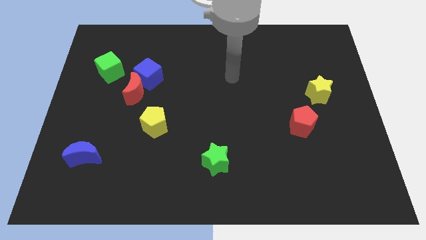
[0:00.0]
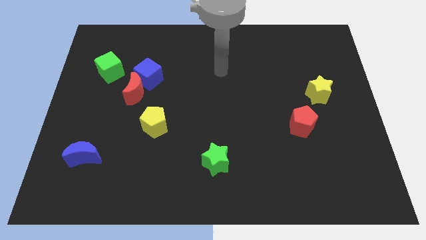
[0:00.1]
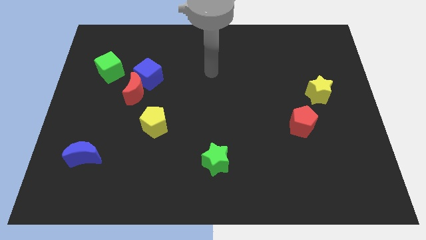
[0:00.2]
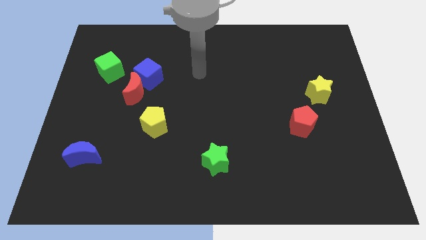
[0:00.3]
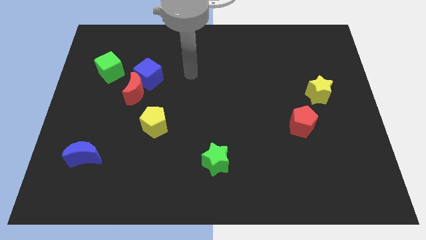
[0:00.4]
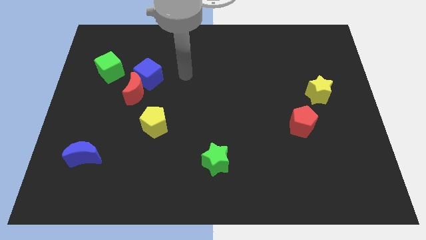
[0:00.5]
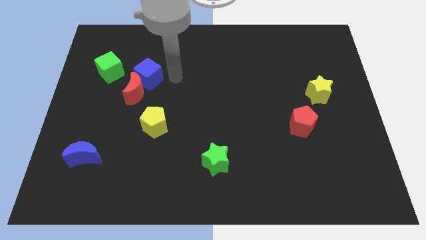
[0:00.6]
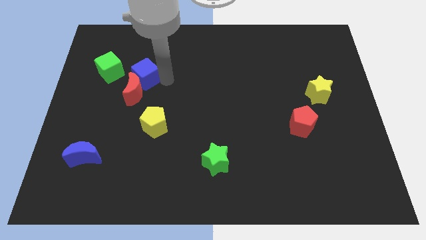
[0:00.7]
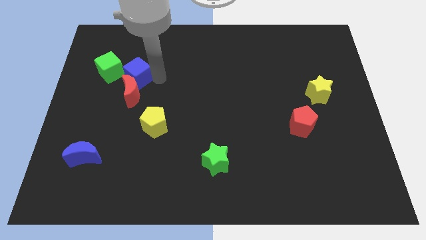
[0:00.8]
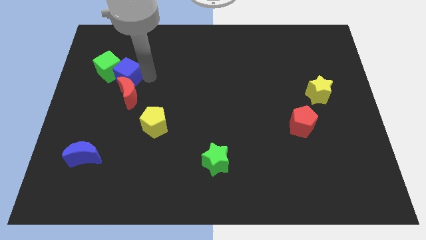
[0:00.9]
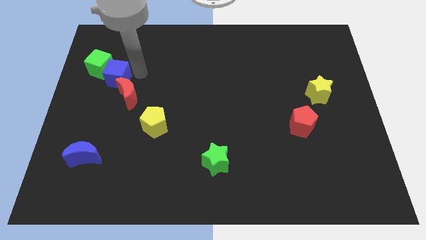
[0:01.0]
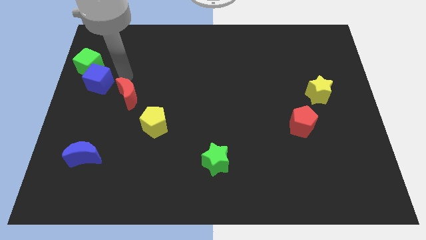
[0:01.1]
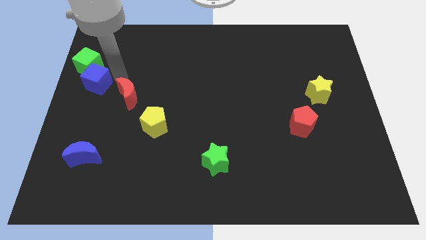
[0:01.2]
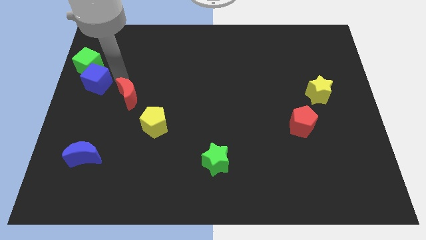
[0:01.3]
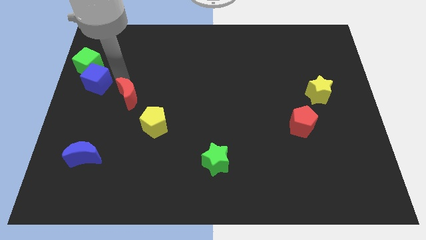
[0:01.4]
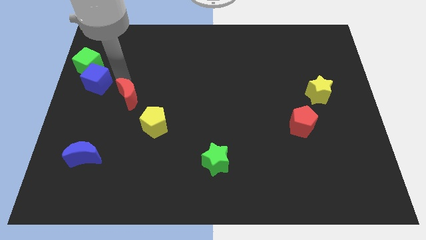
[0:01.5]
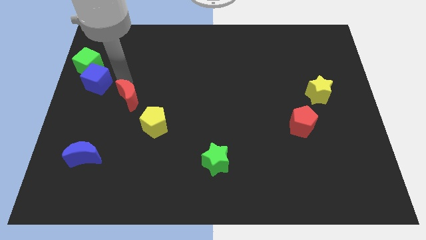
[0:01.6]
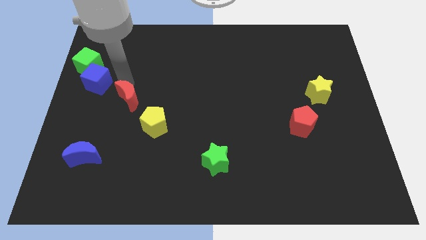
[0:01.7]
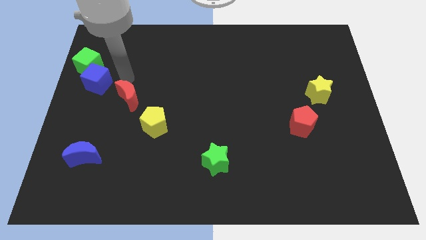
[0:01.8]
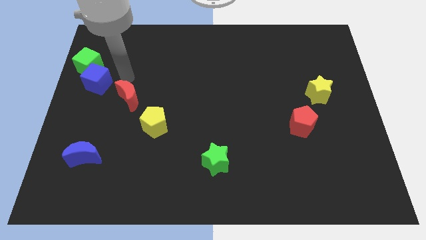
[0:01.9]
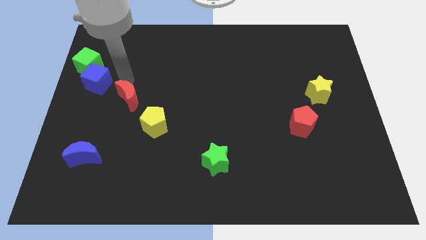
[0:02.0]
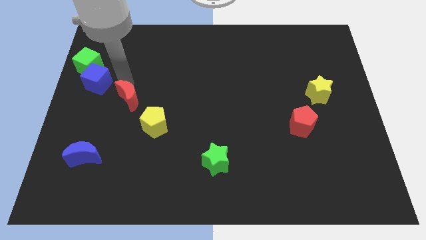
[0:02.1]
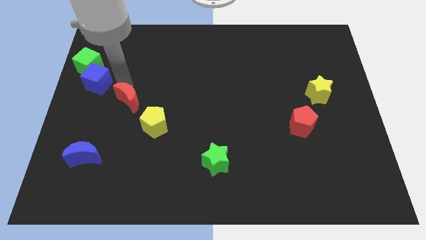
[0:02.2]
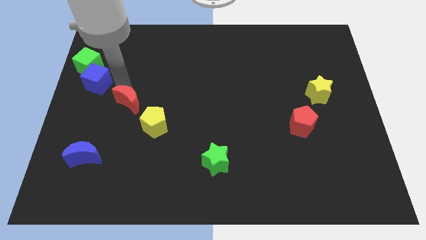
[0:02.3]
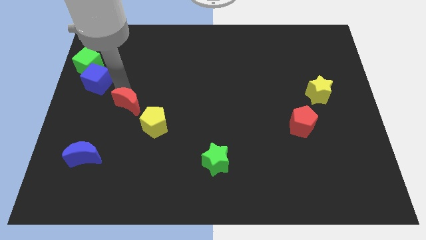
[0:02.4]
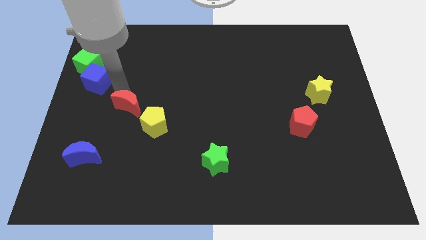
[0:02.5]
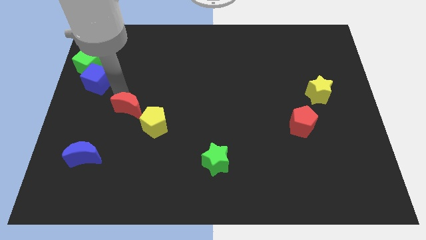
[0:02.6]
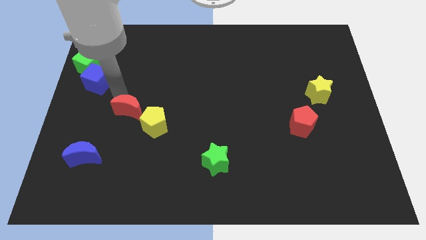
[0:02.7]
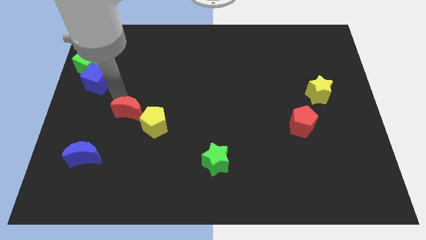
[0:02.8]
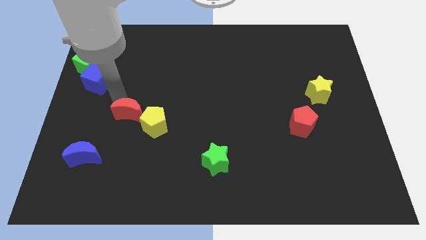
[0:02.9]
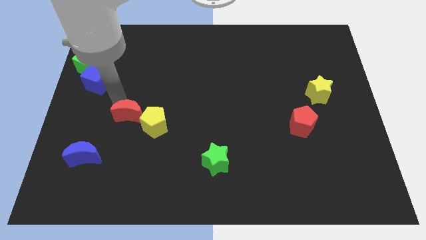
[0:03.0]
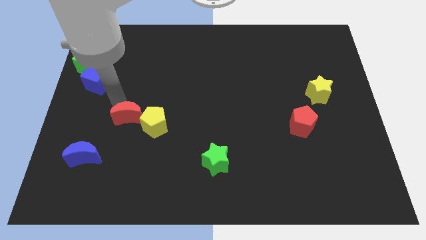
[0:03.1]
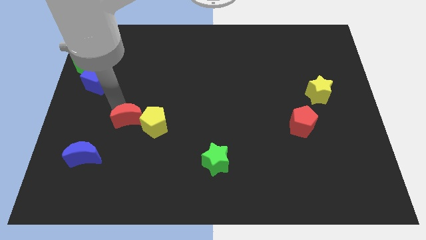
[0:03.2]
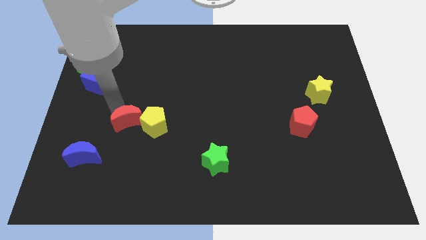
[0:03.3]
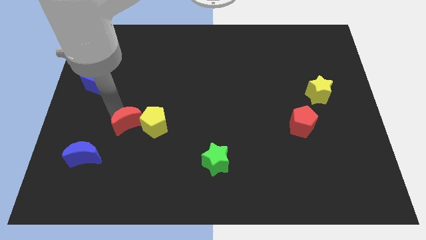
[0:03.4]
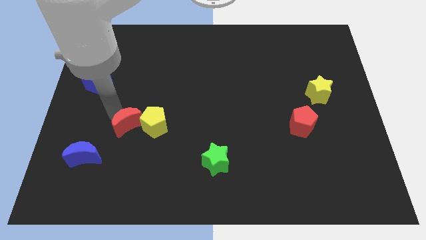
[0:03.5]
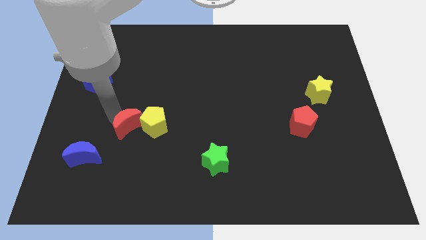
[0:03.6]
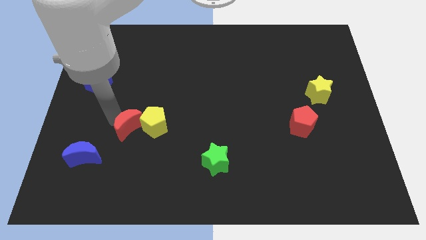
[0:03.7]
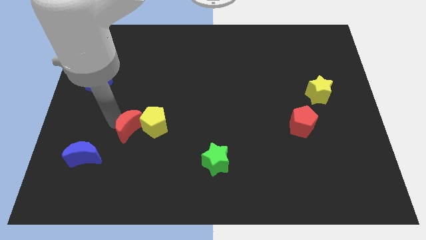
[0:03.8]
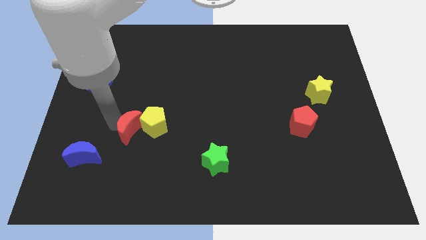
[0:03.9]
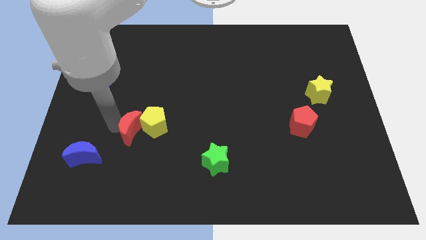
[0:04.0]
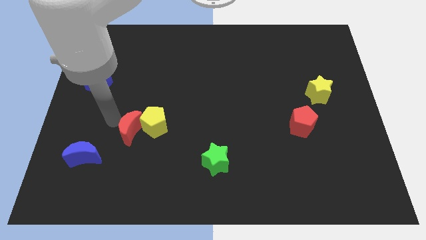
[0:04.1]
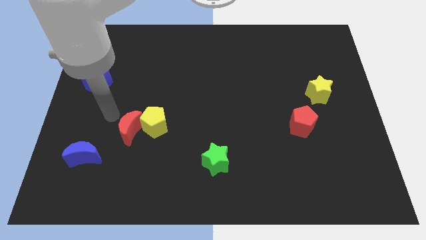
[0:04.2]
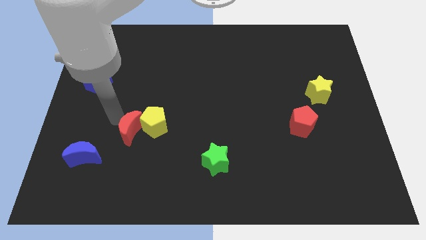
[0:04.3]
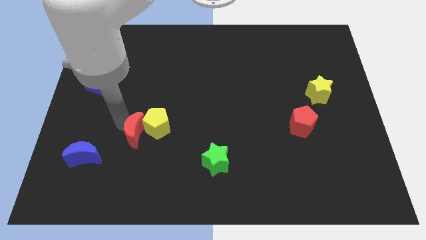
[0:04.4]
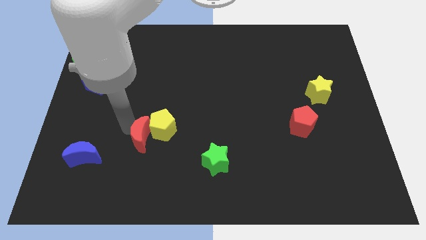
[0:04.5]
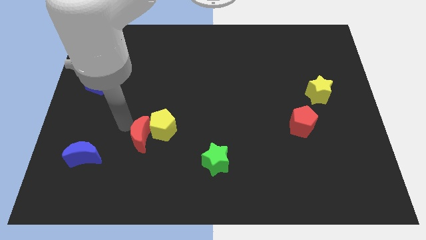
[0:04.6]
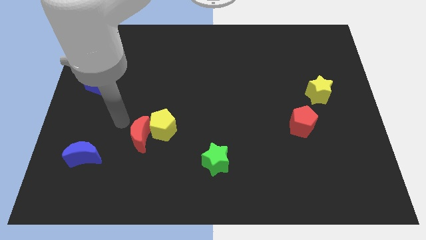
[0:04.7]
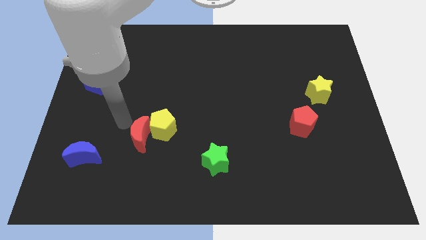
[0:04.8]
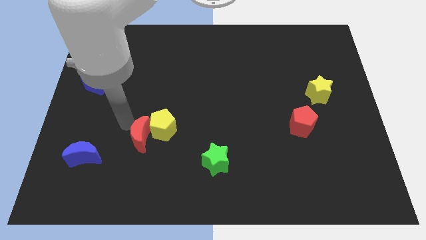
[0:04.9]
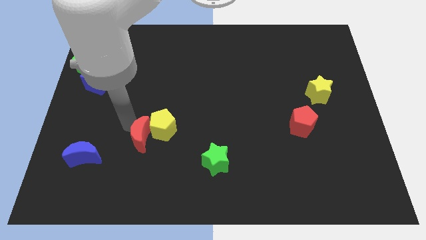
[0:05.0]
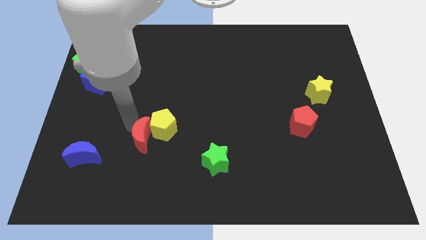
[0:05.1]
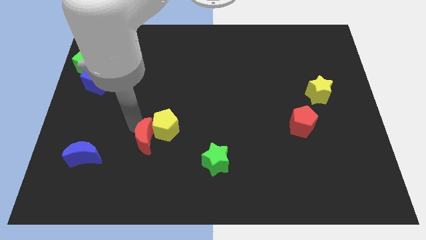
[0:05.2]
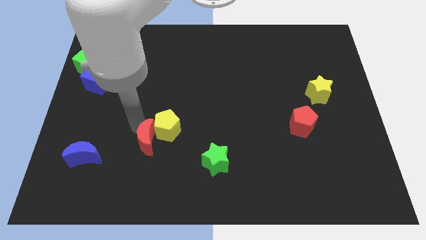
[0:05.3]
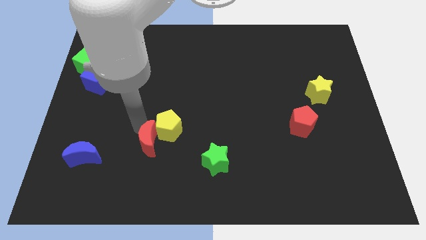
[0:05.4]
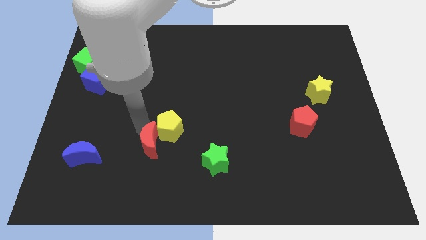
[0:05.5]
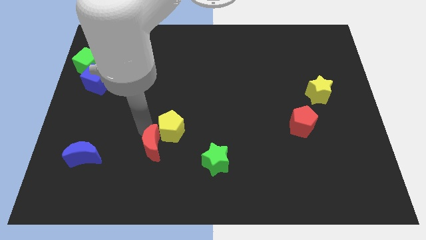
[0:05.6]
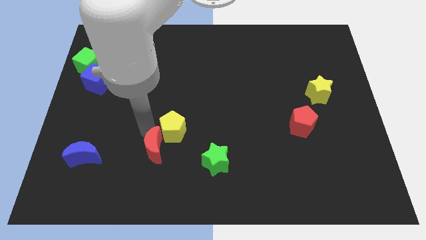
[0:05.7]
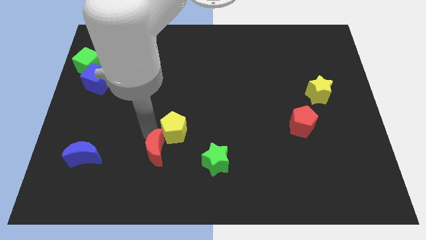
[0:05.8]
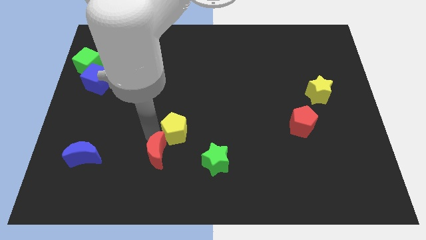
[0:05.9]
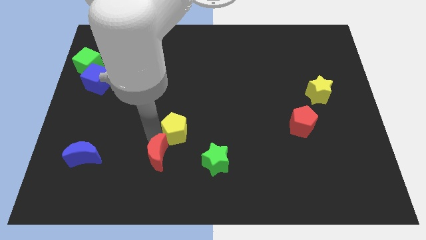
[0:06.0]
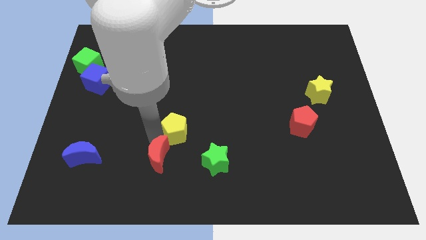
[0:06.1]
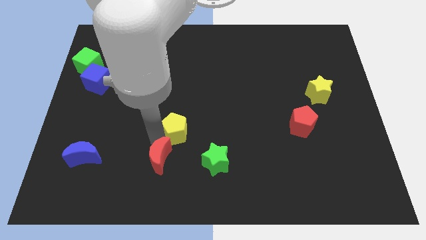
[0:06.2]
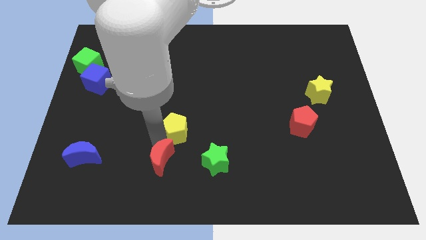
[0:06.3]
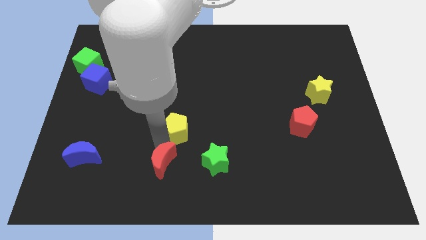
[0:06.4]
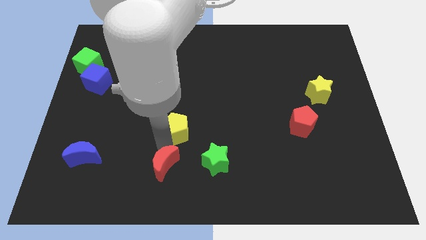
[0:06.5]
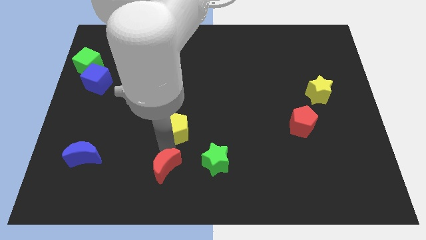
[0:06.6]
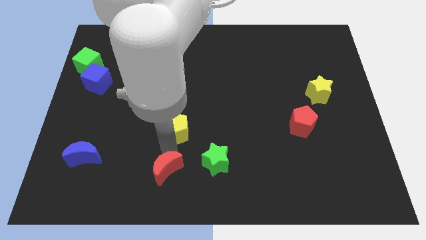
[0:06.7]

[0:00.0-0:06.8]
slide the red moon to the bottom side
